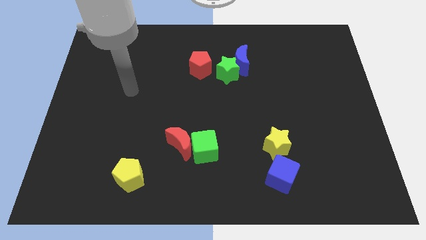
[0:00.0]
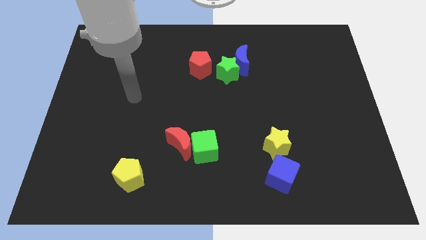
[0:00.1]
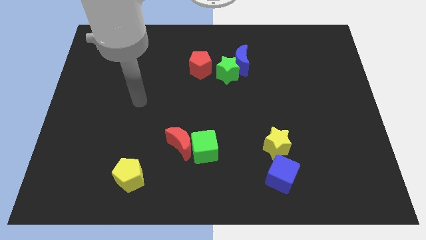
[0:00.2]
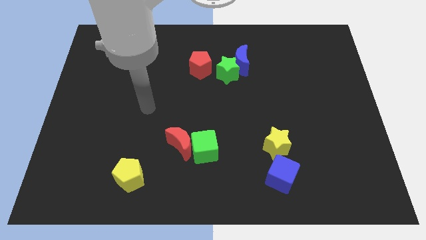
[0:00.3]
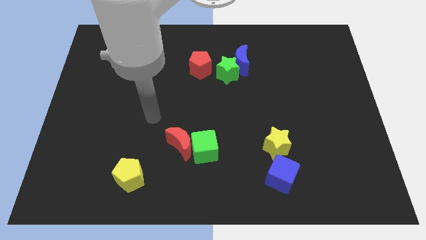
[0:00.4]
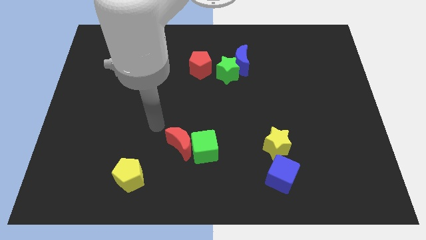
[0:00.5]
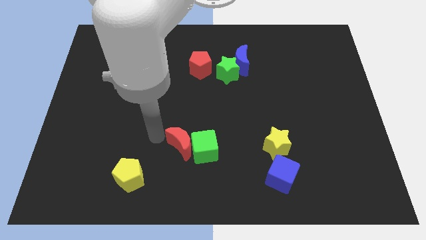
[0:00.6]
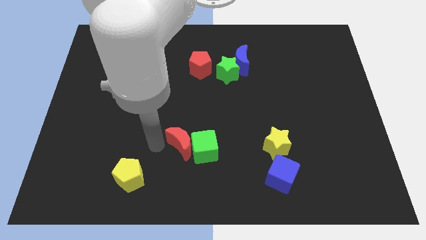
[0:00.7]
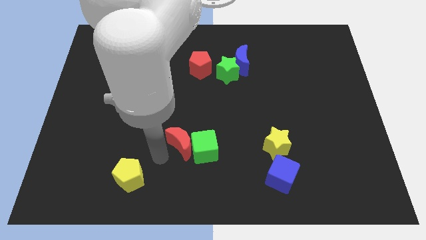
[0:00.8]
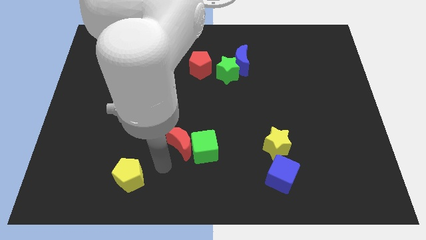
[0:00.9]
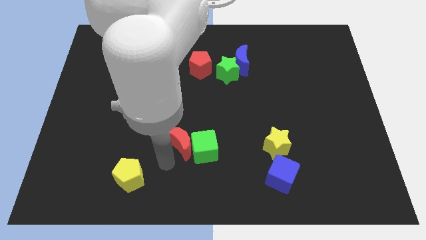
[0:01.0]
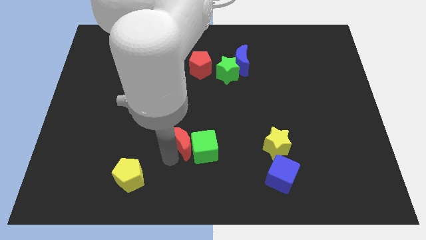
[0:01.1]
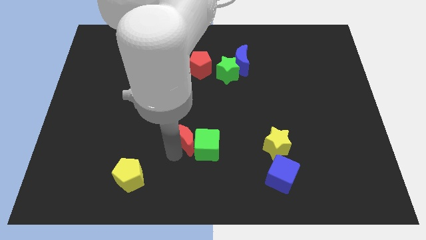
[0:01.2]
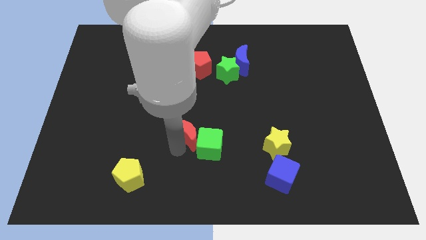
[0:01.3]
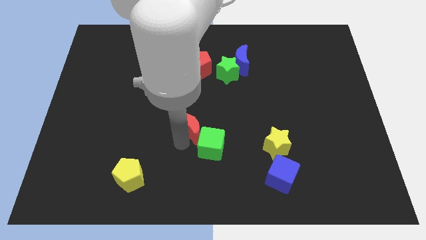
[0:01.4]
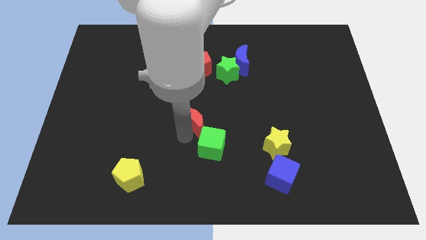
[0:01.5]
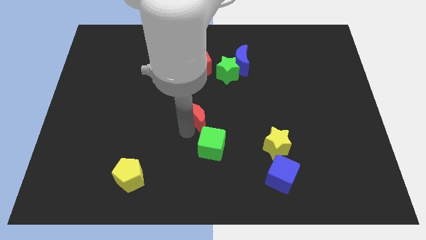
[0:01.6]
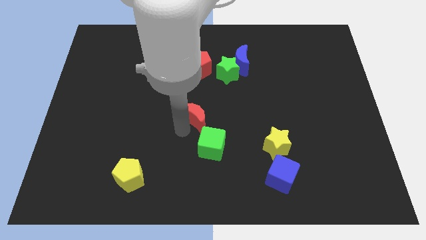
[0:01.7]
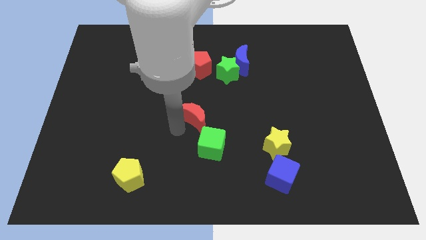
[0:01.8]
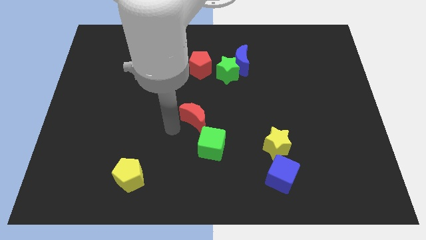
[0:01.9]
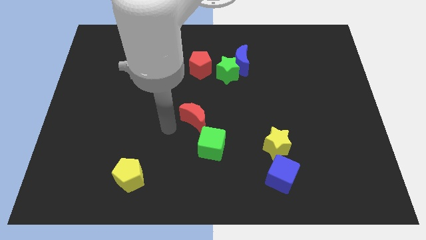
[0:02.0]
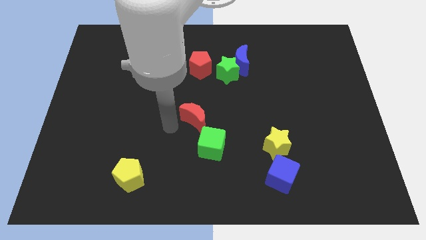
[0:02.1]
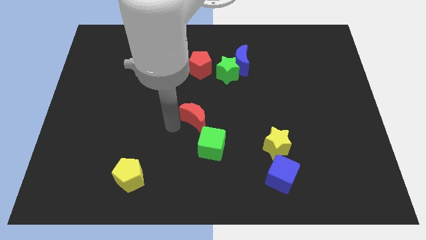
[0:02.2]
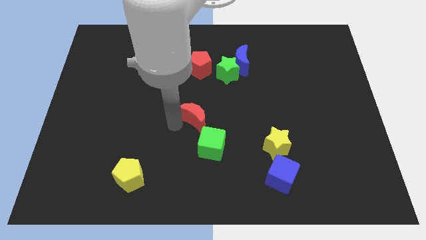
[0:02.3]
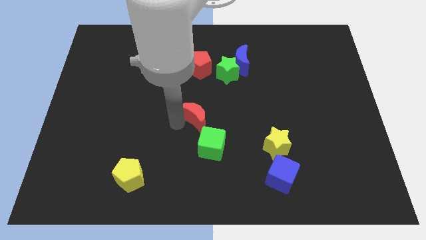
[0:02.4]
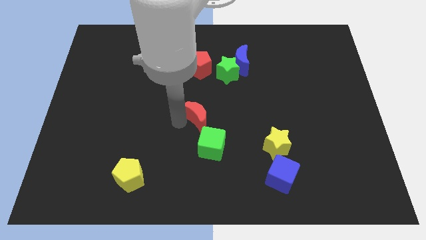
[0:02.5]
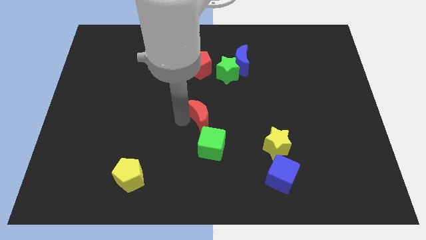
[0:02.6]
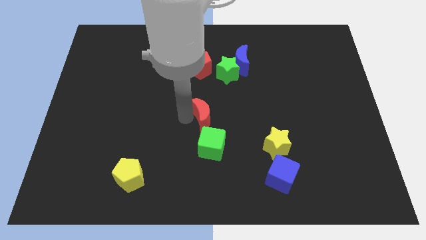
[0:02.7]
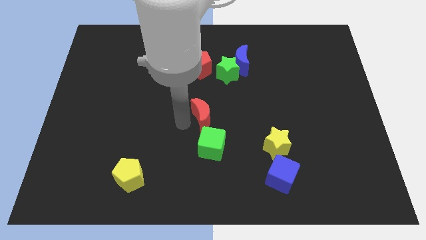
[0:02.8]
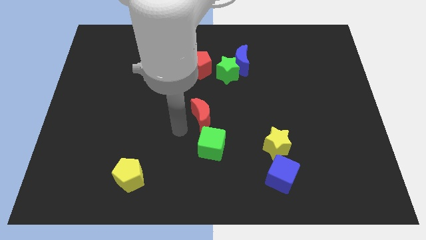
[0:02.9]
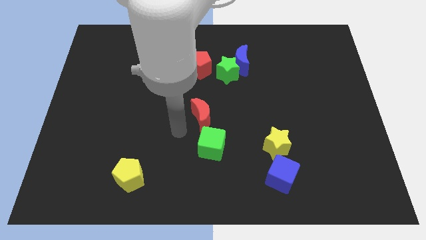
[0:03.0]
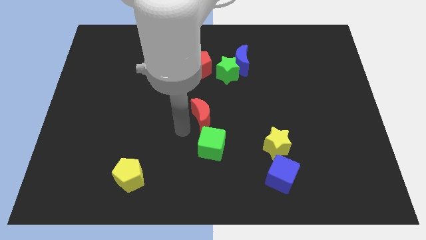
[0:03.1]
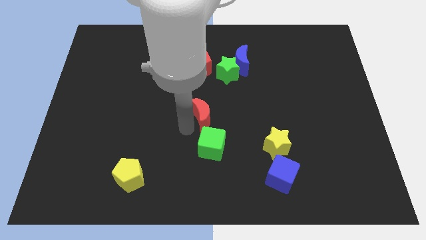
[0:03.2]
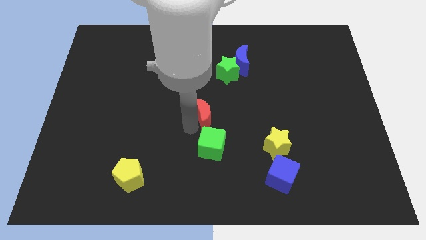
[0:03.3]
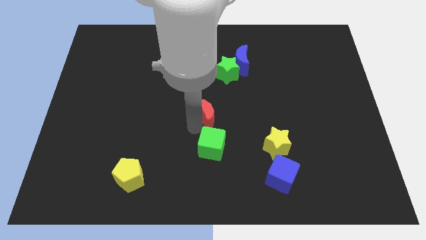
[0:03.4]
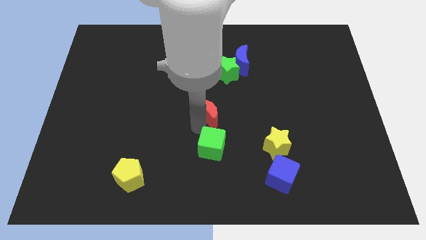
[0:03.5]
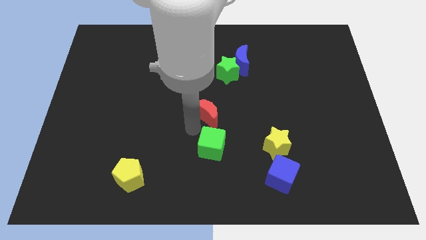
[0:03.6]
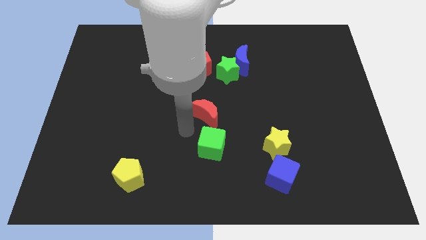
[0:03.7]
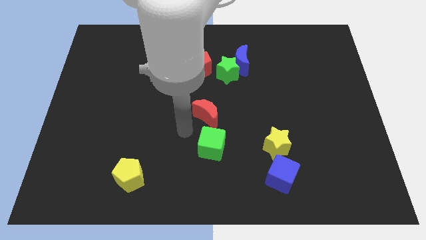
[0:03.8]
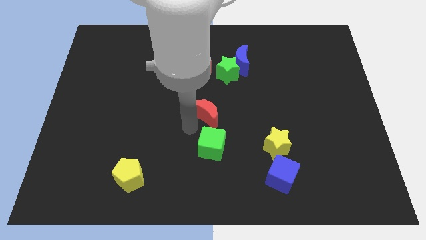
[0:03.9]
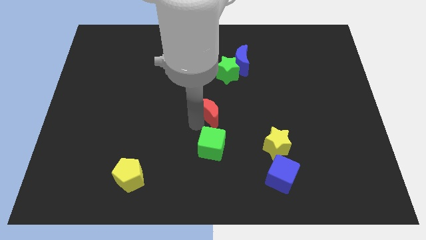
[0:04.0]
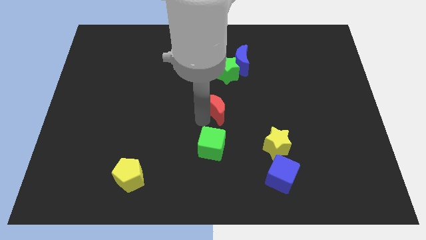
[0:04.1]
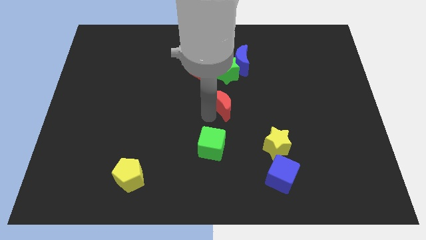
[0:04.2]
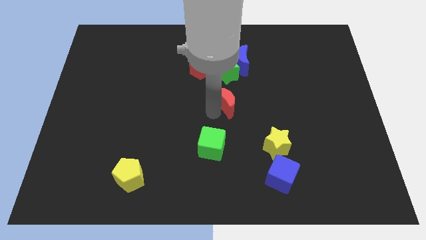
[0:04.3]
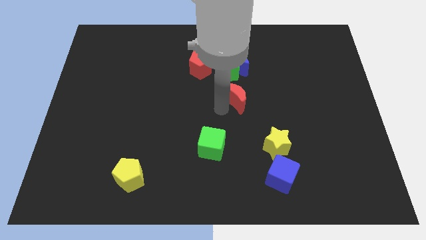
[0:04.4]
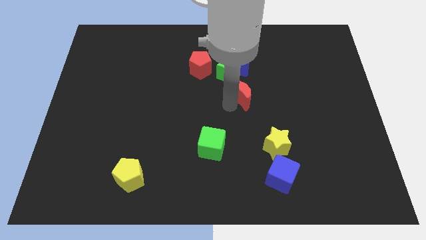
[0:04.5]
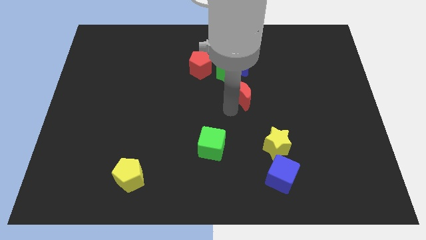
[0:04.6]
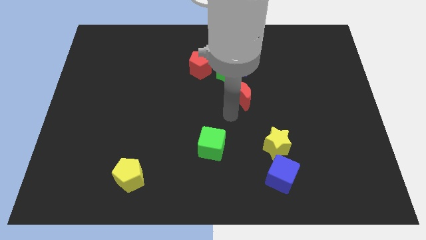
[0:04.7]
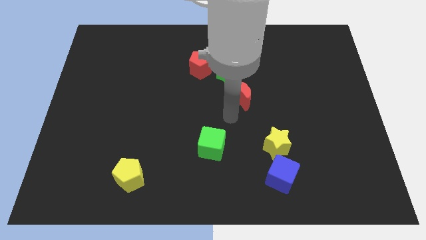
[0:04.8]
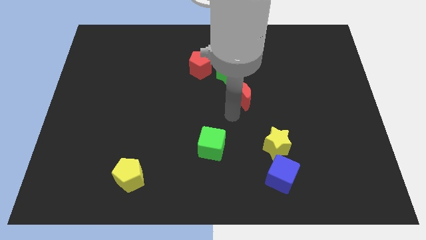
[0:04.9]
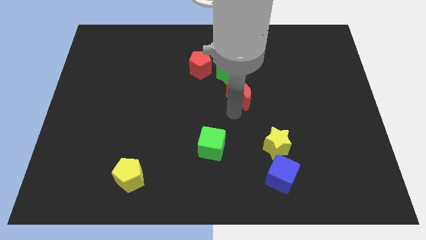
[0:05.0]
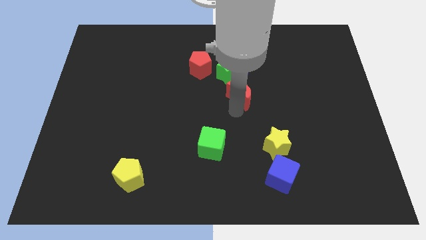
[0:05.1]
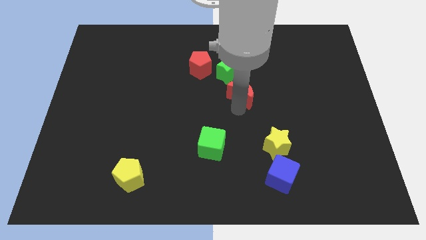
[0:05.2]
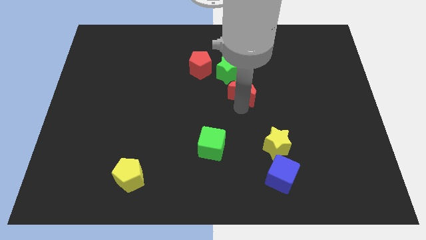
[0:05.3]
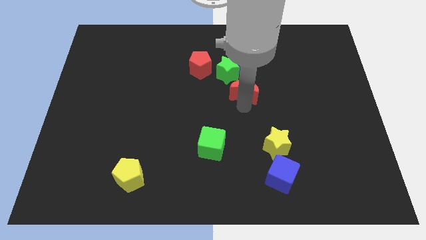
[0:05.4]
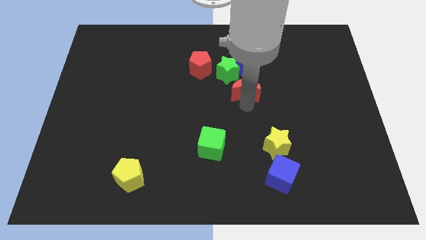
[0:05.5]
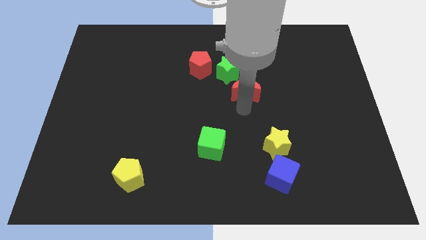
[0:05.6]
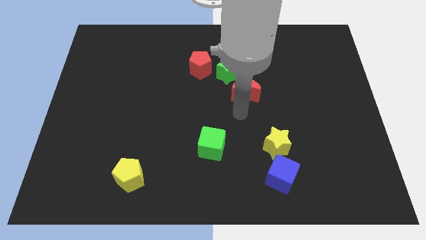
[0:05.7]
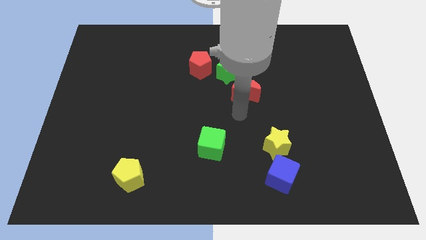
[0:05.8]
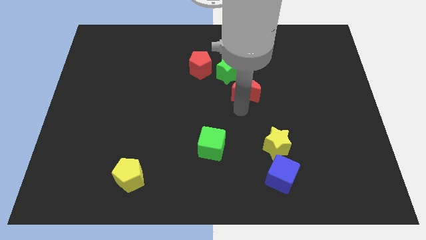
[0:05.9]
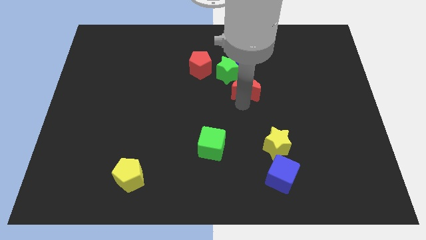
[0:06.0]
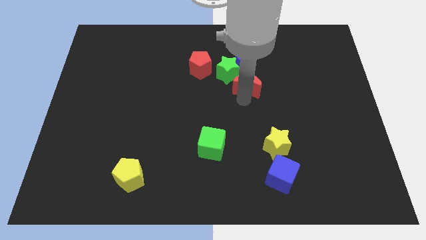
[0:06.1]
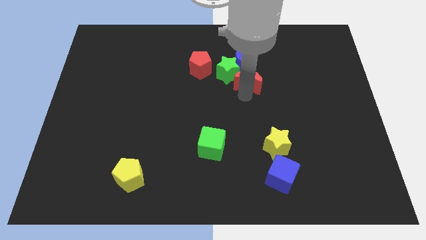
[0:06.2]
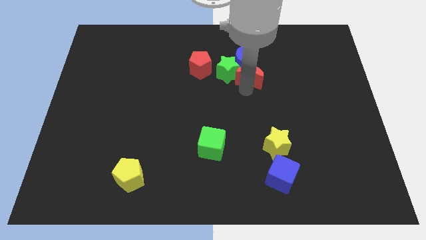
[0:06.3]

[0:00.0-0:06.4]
put the red moon to the right side of the red pentagon

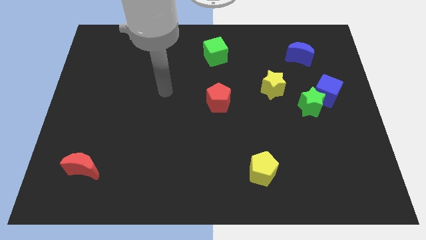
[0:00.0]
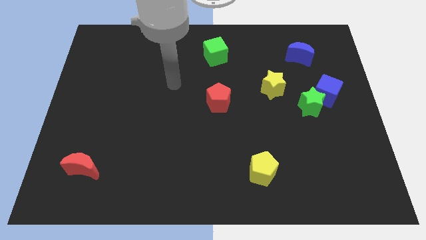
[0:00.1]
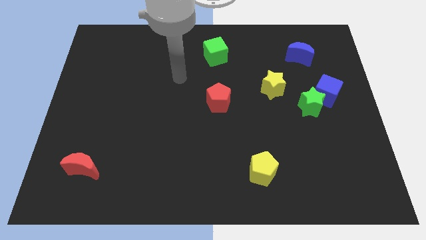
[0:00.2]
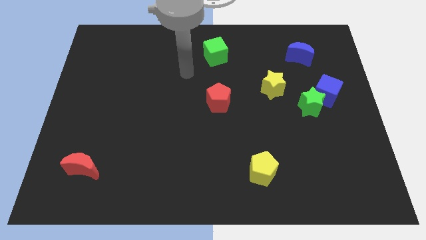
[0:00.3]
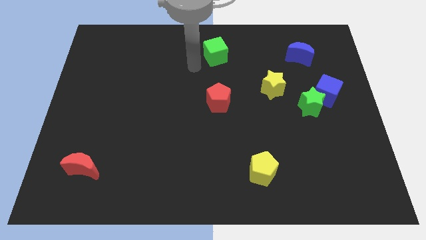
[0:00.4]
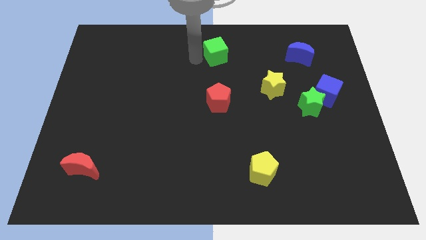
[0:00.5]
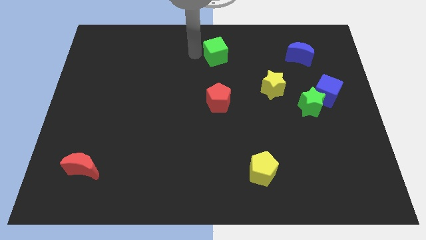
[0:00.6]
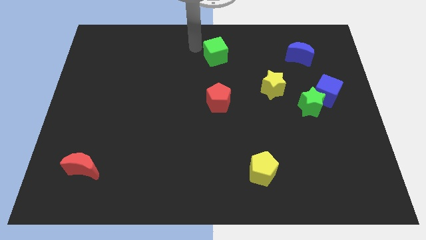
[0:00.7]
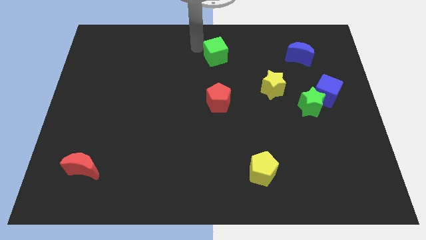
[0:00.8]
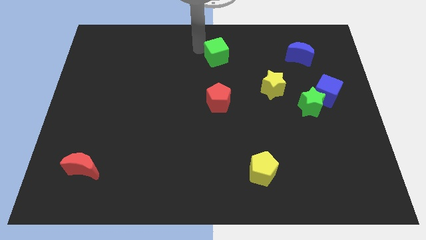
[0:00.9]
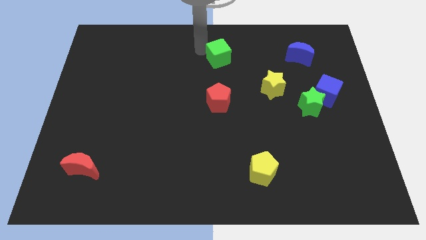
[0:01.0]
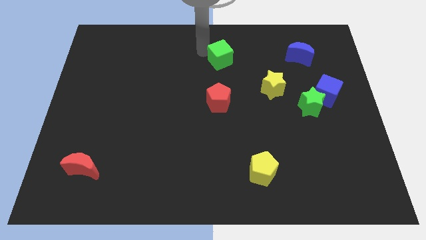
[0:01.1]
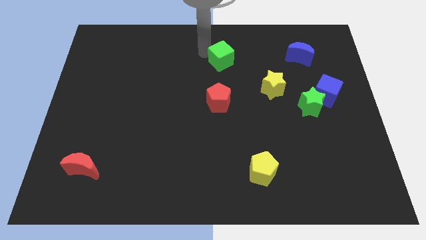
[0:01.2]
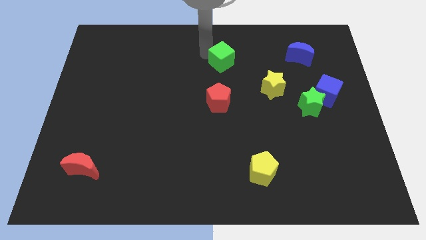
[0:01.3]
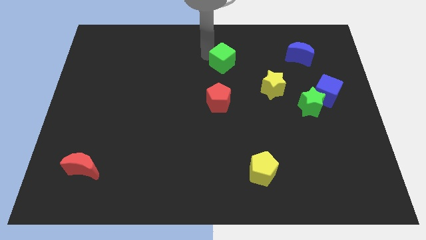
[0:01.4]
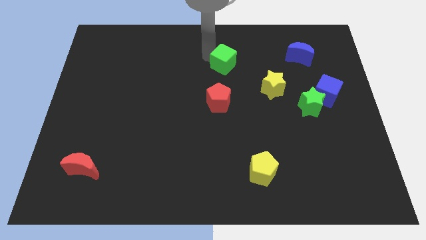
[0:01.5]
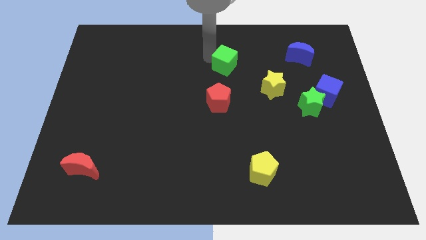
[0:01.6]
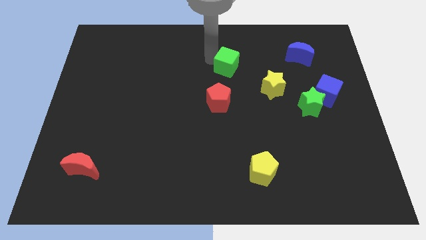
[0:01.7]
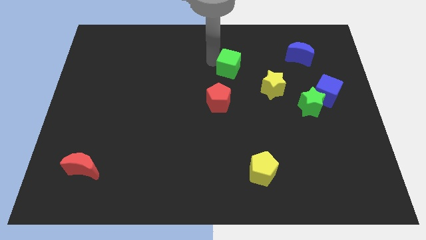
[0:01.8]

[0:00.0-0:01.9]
put the green cube to the top left side of the yellow star
